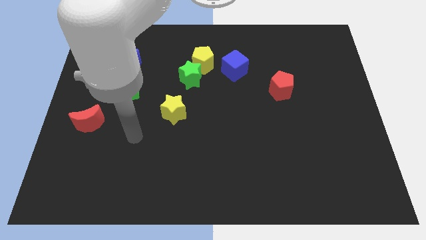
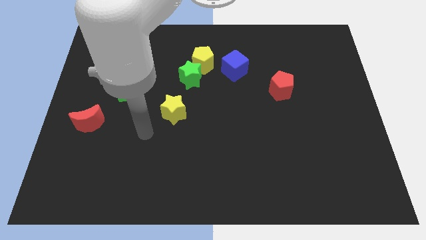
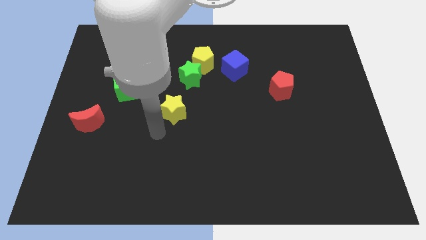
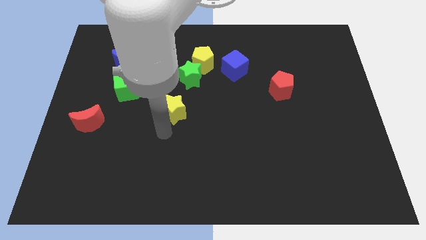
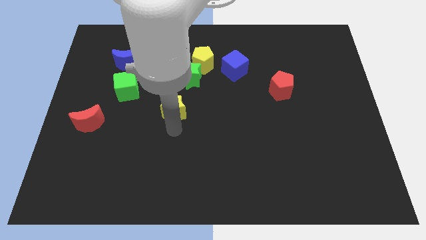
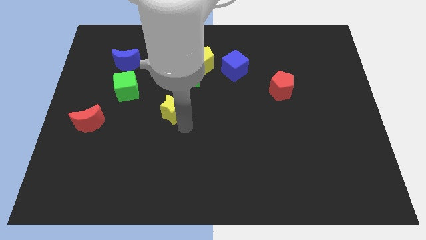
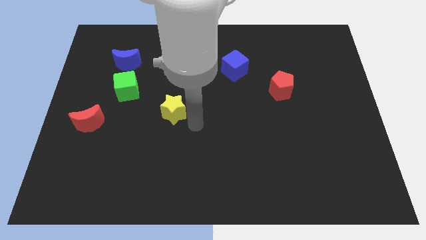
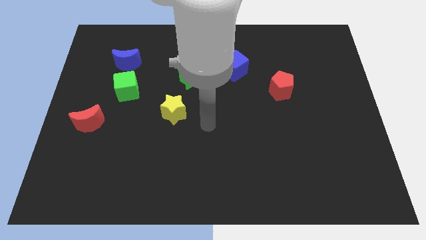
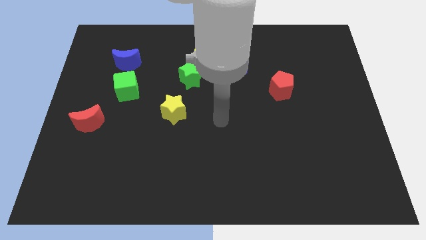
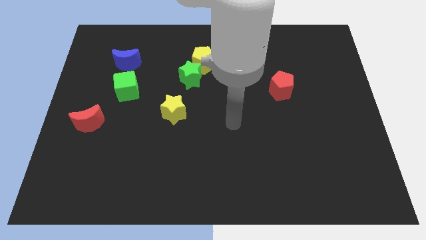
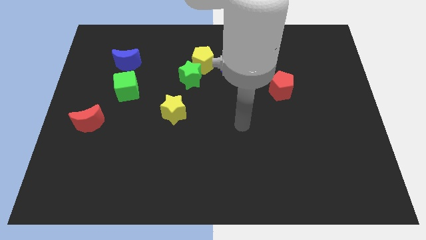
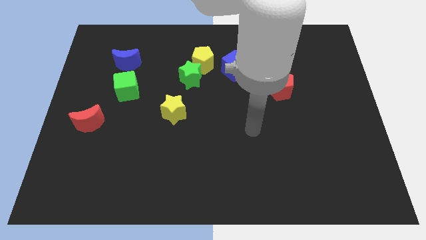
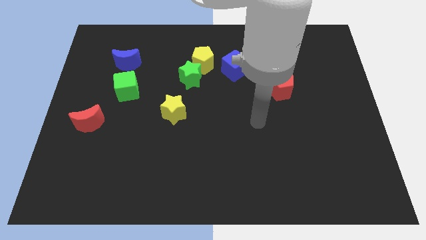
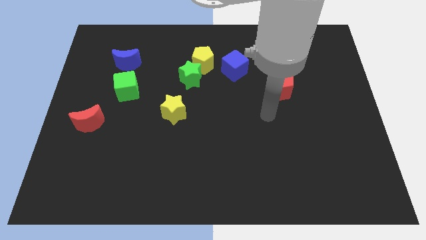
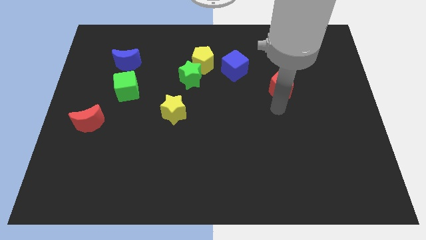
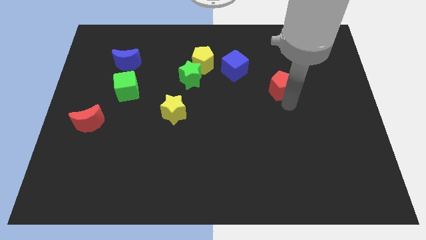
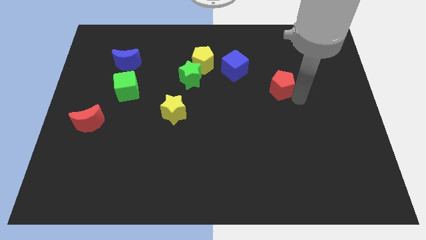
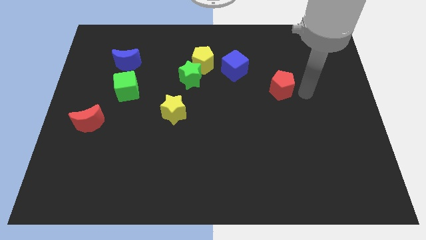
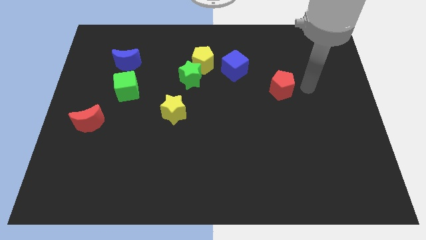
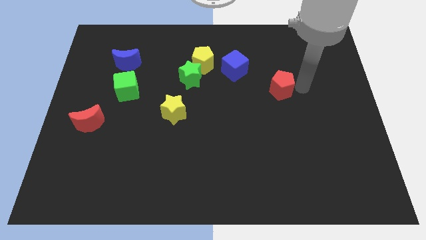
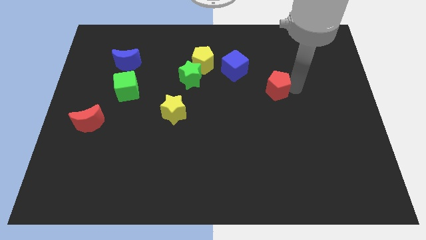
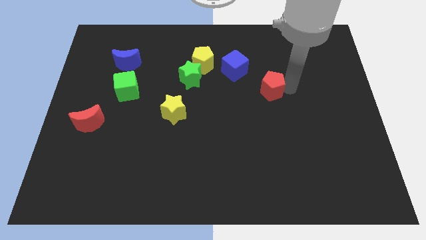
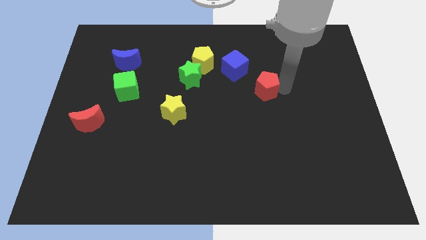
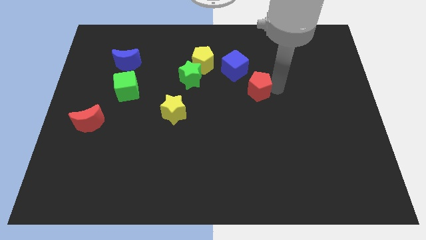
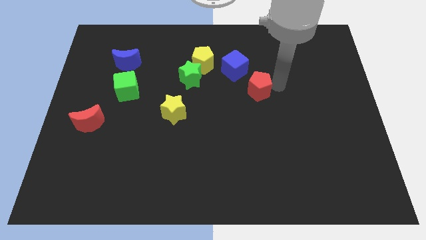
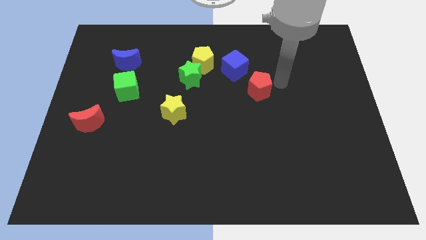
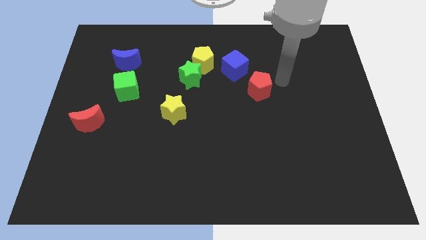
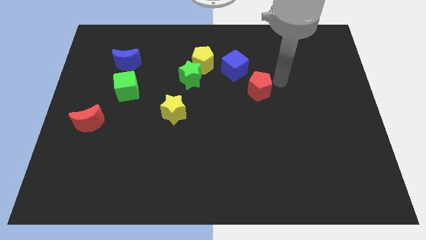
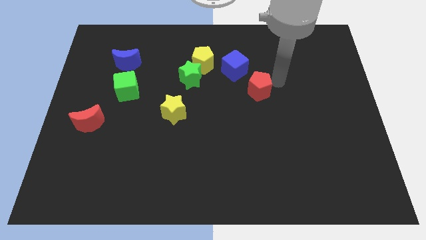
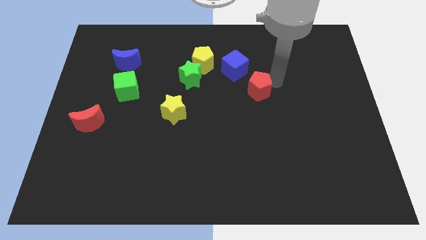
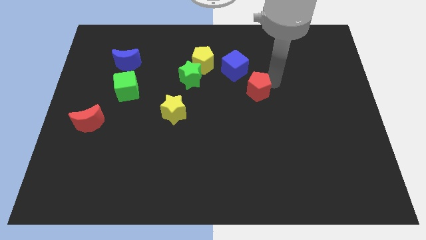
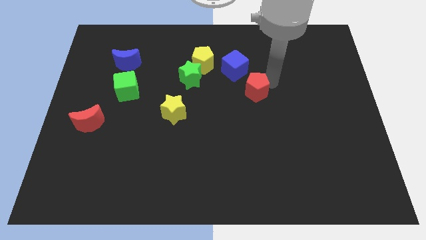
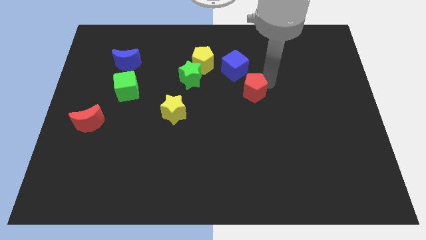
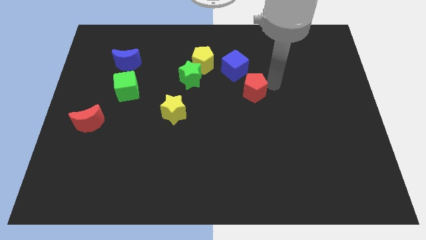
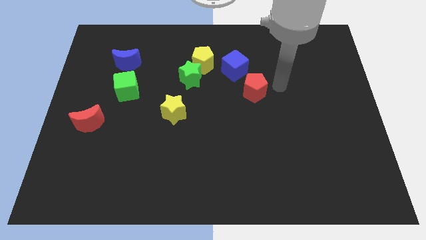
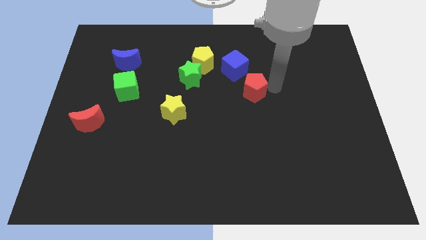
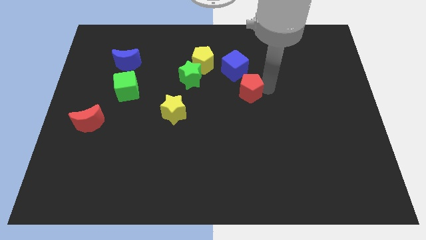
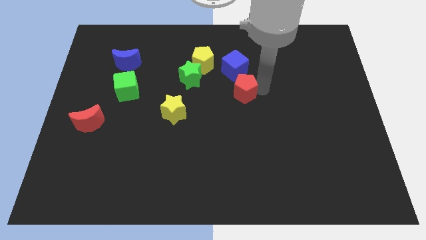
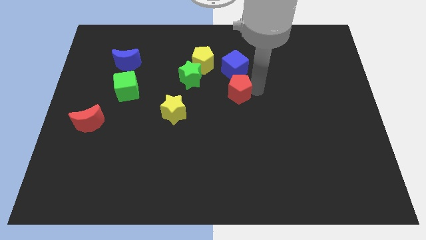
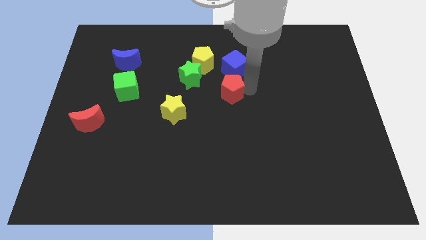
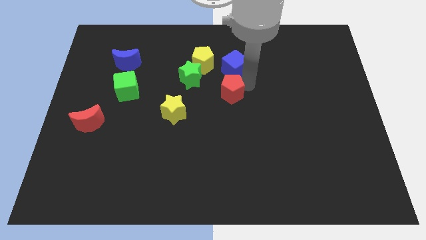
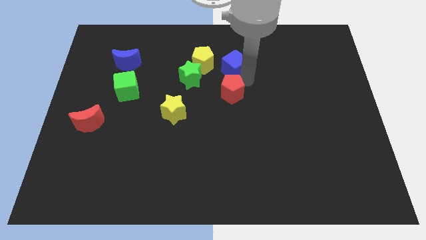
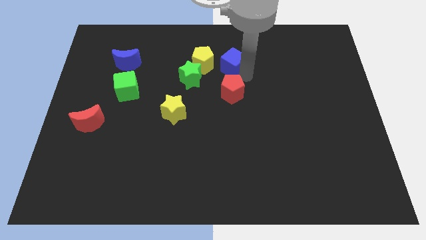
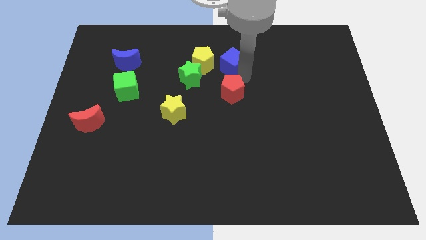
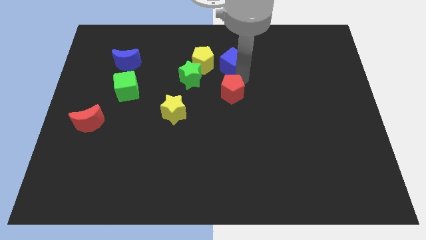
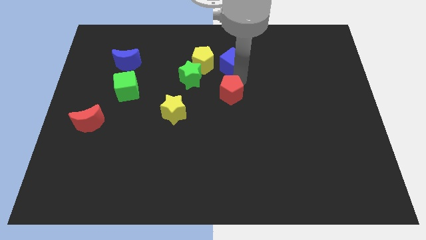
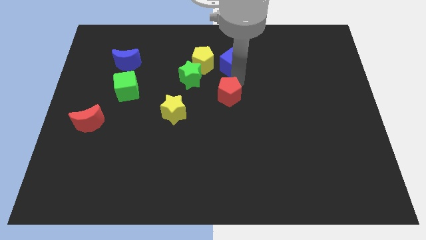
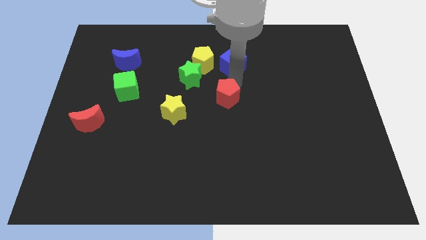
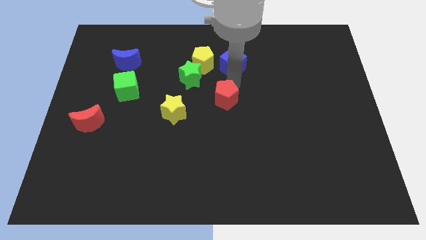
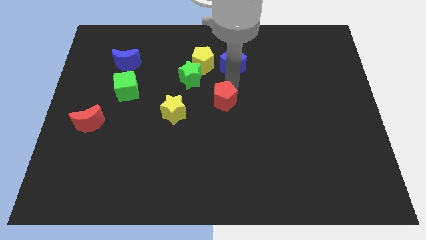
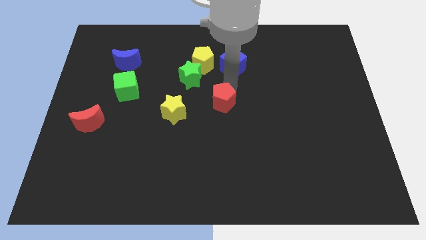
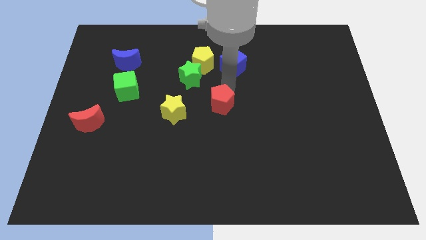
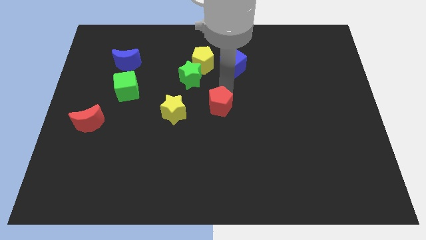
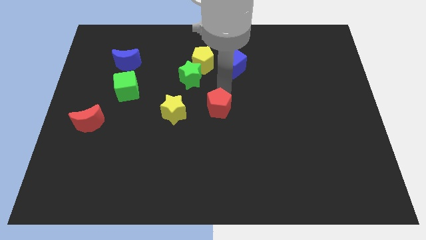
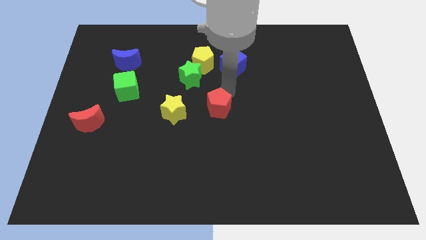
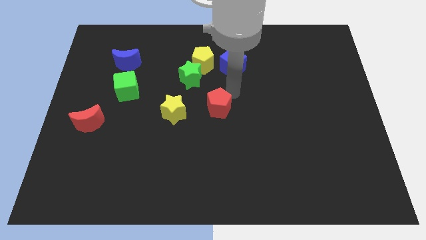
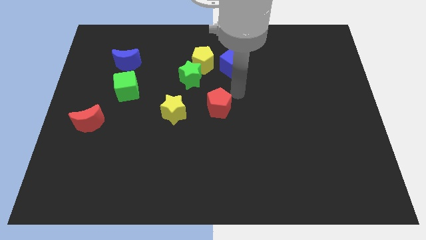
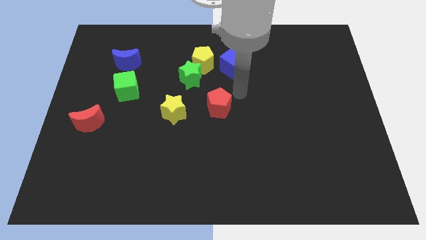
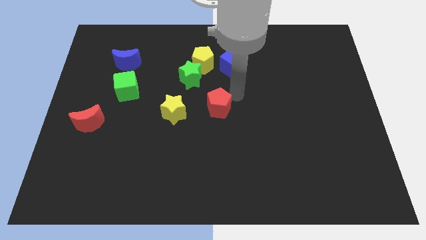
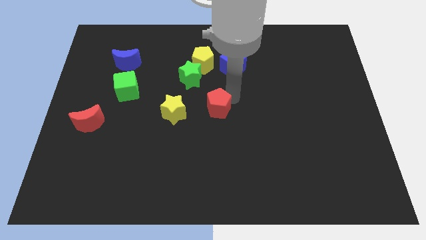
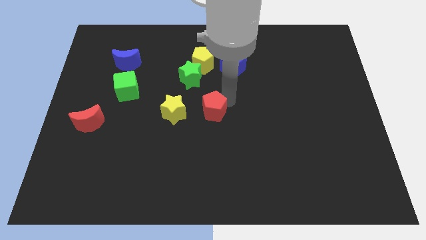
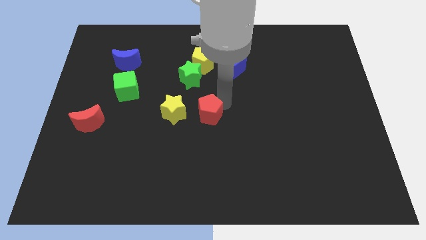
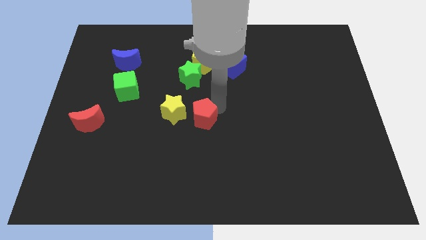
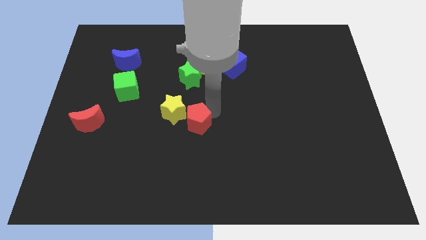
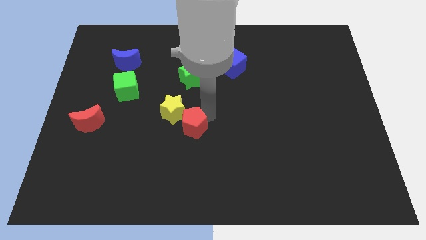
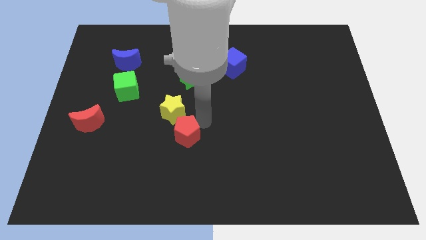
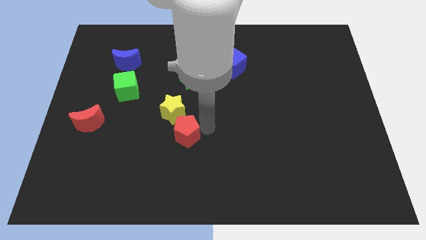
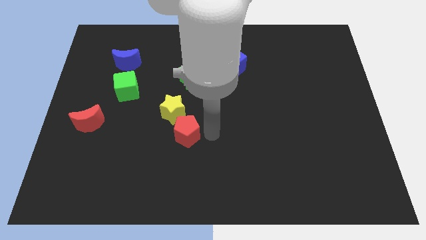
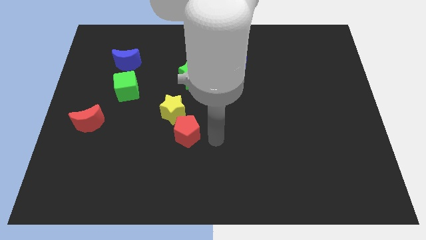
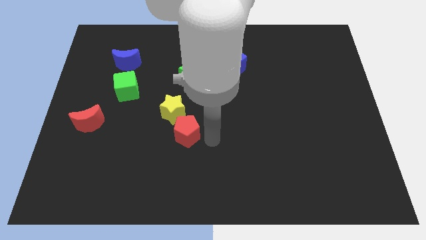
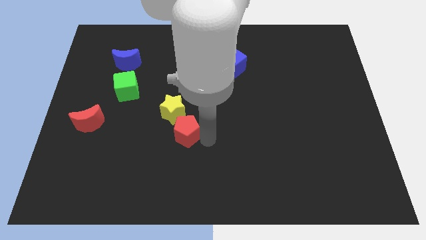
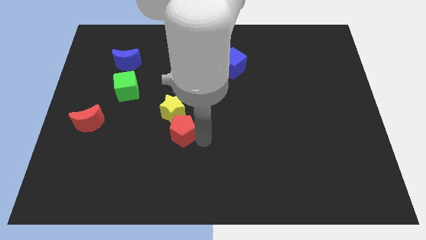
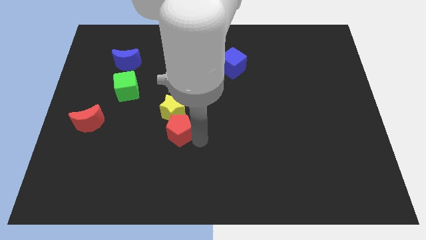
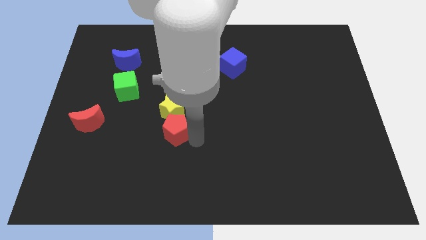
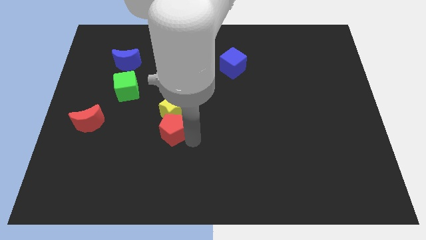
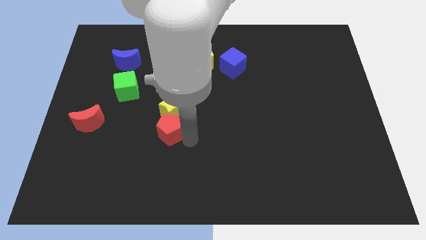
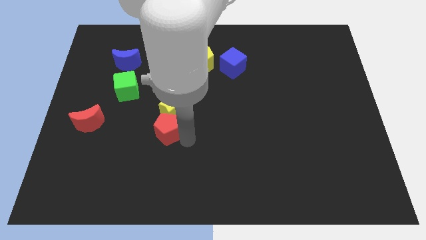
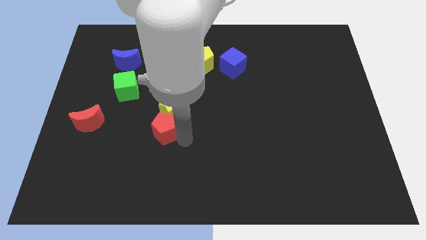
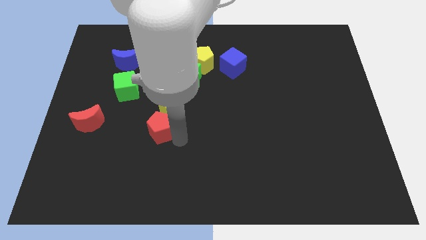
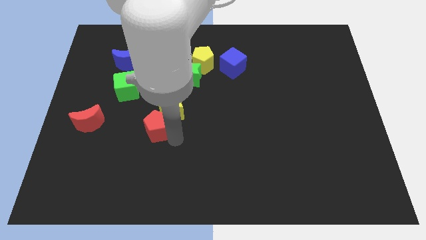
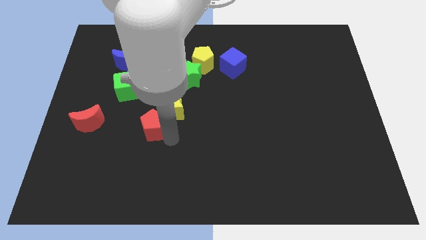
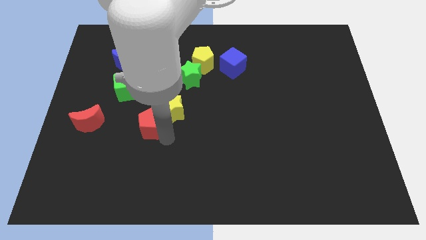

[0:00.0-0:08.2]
slide the red pentagon to the left of the yellow star
